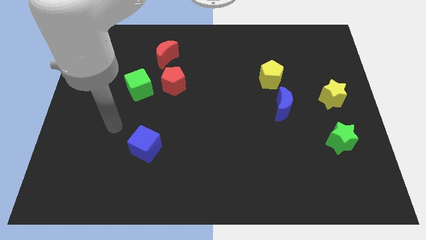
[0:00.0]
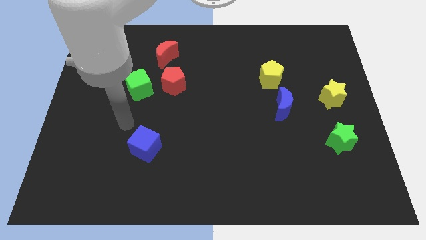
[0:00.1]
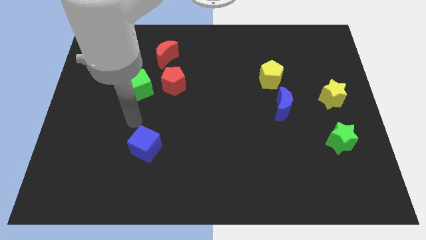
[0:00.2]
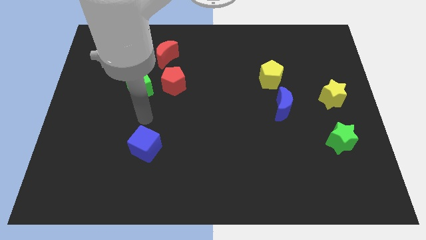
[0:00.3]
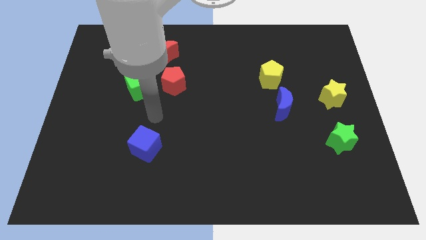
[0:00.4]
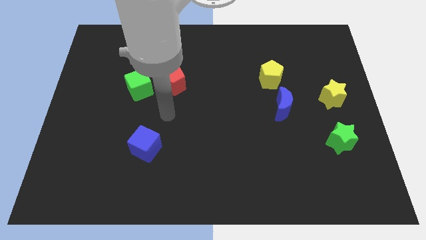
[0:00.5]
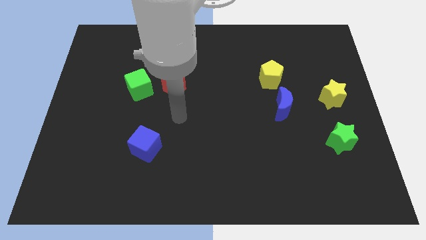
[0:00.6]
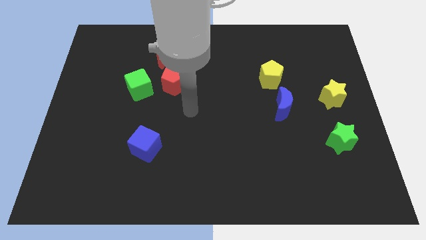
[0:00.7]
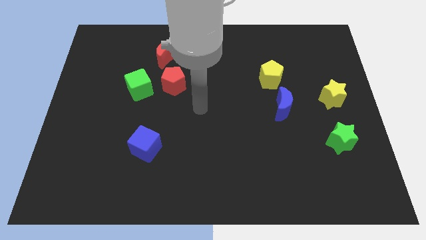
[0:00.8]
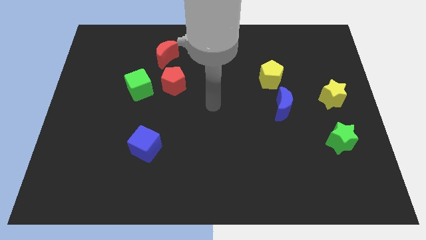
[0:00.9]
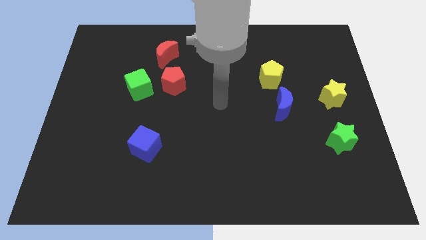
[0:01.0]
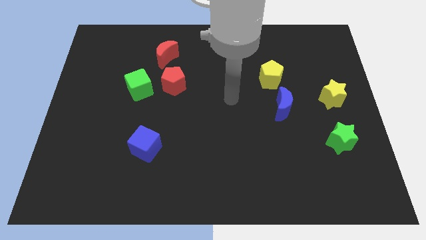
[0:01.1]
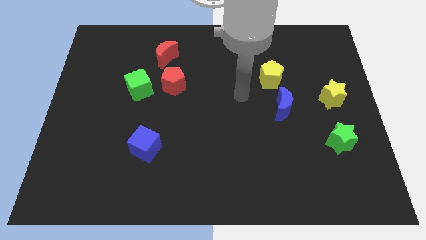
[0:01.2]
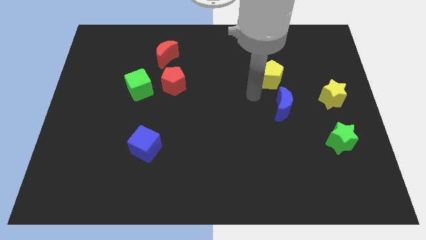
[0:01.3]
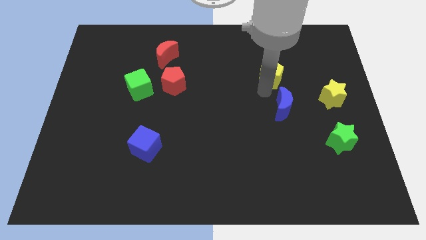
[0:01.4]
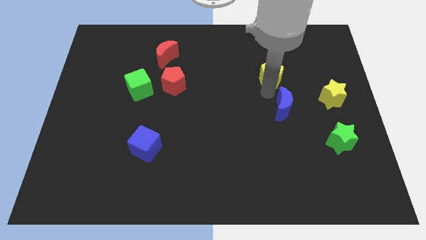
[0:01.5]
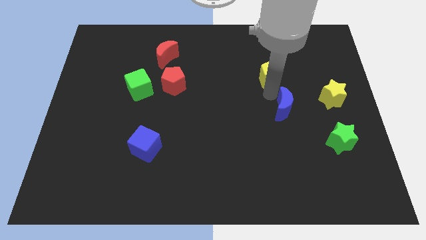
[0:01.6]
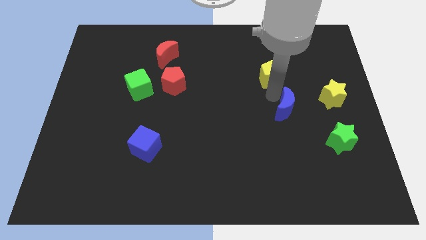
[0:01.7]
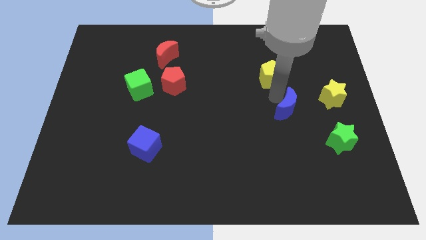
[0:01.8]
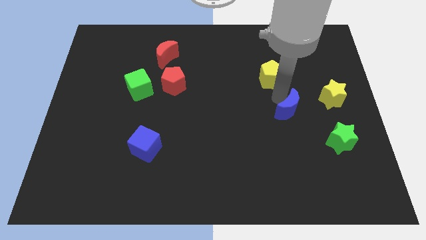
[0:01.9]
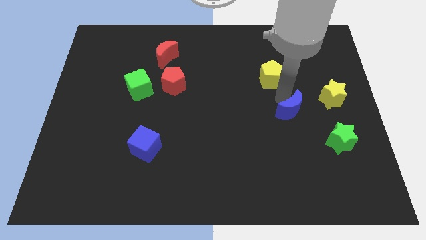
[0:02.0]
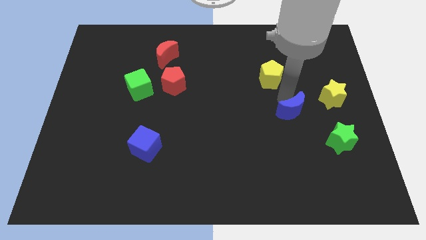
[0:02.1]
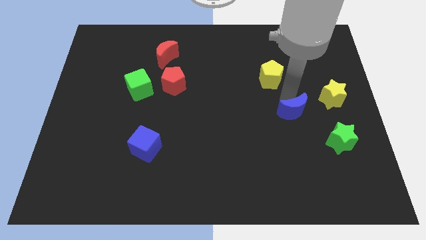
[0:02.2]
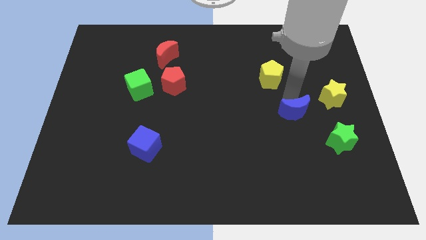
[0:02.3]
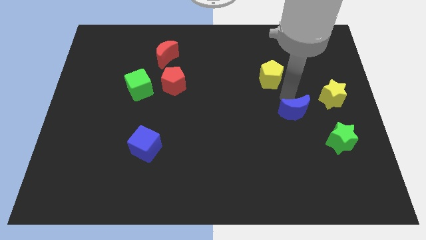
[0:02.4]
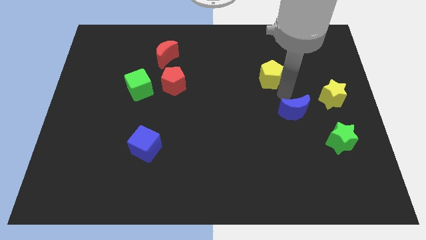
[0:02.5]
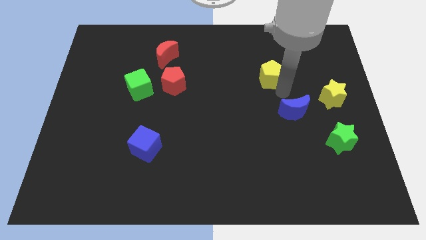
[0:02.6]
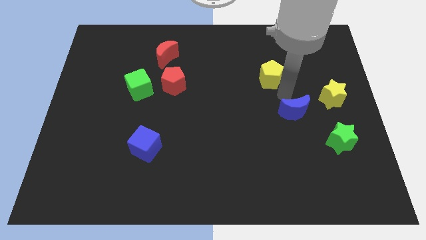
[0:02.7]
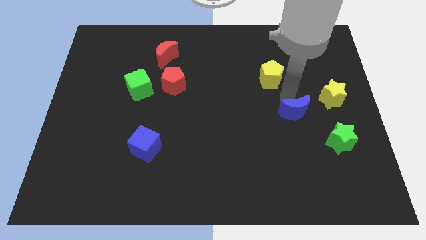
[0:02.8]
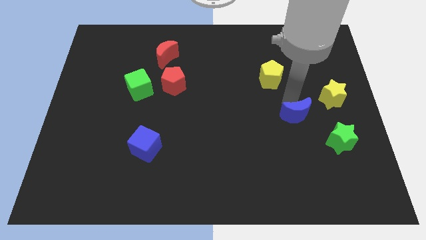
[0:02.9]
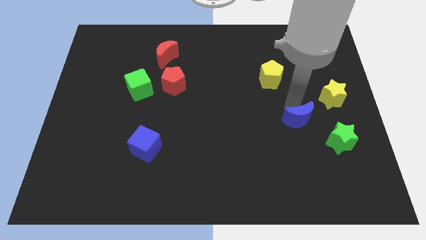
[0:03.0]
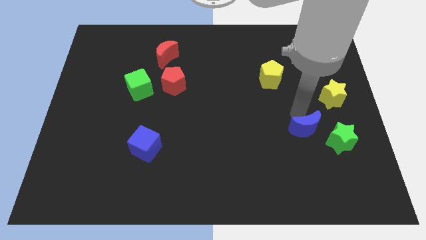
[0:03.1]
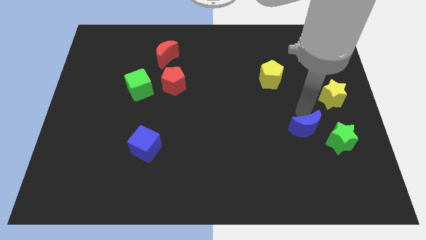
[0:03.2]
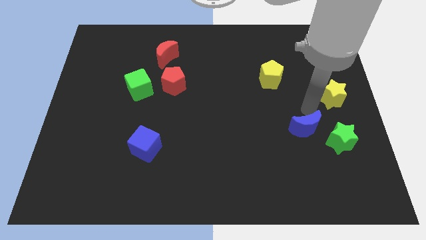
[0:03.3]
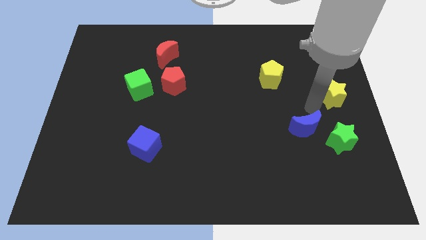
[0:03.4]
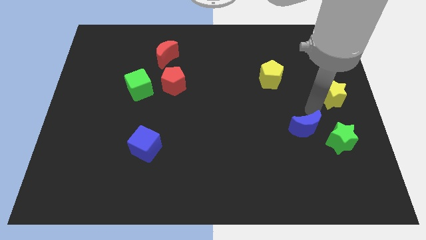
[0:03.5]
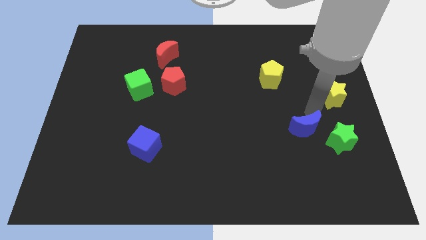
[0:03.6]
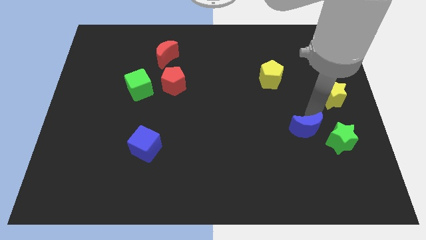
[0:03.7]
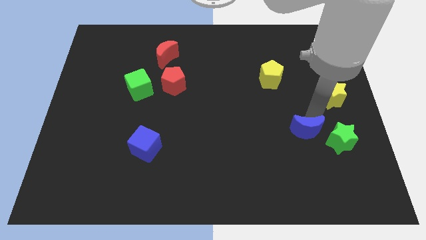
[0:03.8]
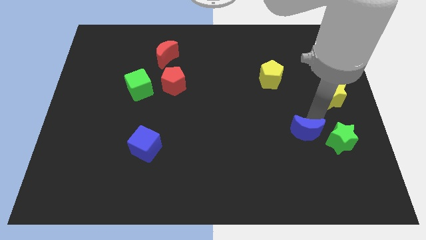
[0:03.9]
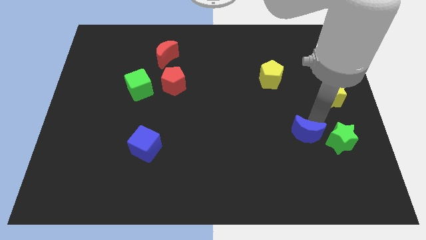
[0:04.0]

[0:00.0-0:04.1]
slightly move the blue moon downwards

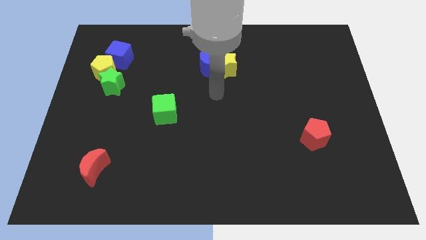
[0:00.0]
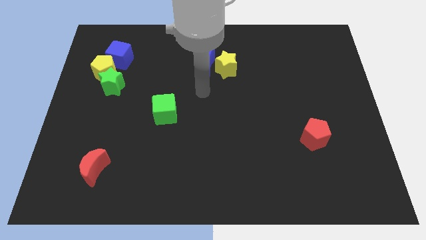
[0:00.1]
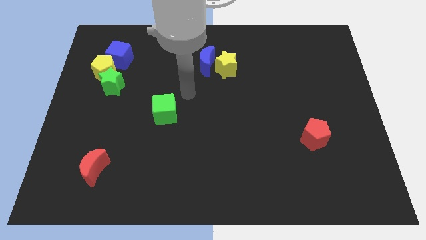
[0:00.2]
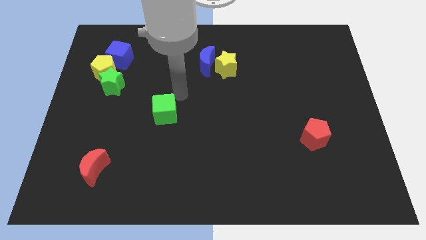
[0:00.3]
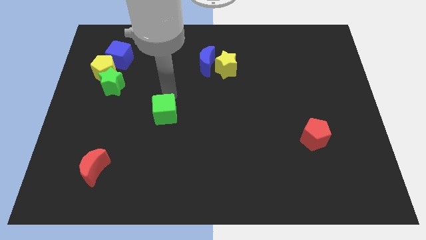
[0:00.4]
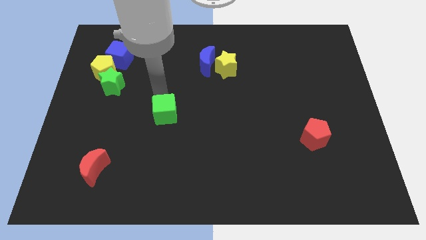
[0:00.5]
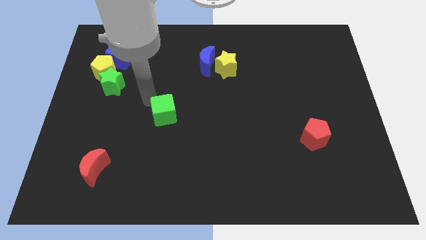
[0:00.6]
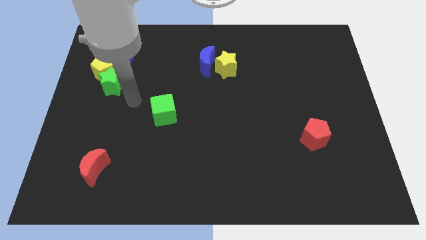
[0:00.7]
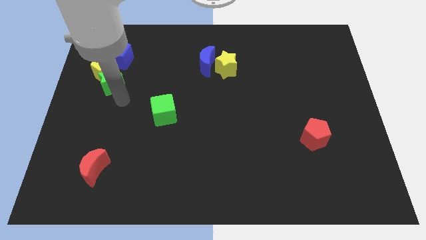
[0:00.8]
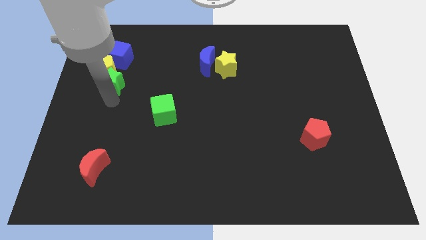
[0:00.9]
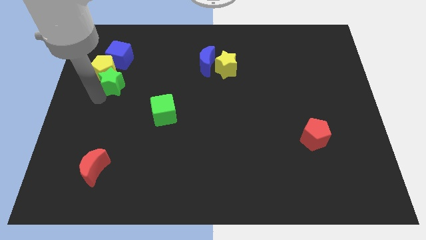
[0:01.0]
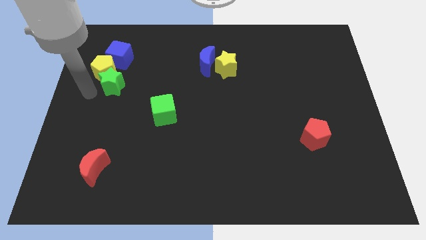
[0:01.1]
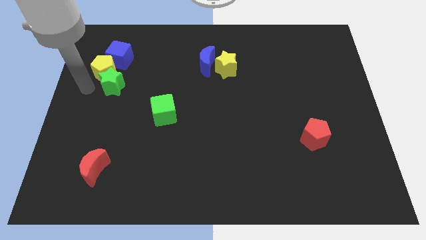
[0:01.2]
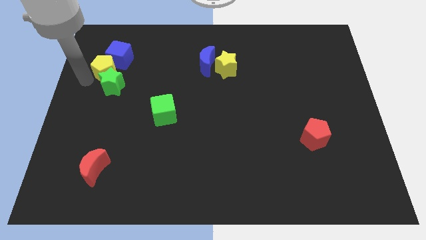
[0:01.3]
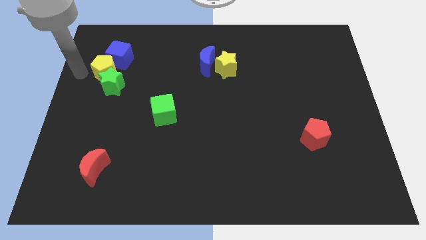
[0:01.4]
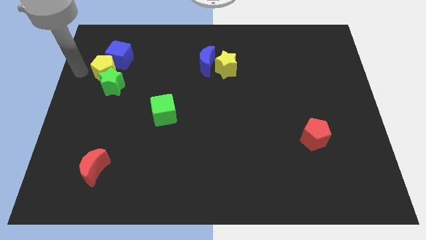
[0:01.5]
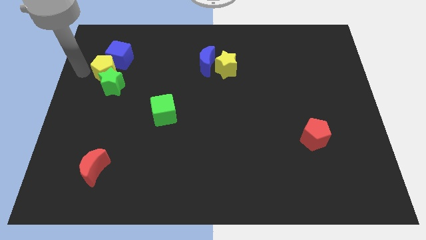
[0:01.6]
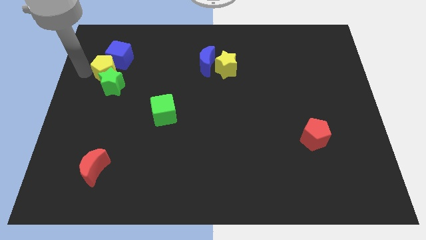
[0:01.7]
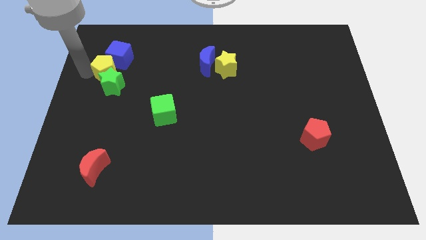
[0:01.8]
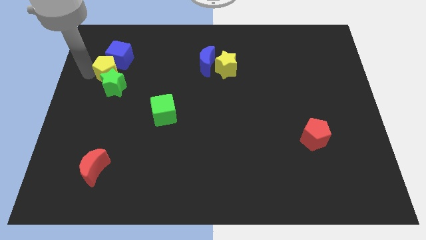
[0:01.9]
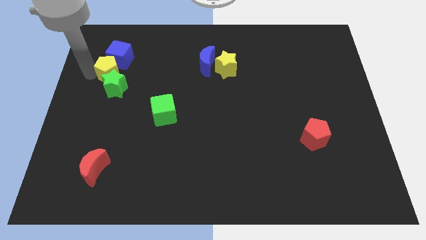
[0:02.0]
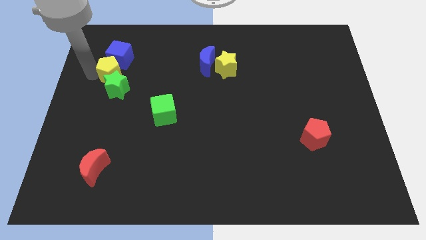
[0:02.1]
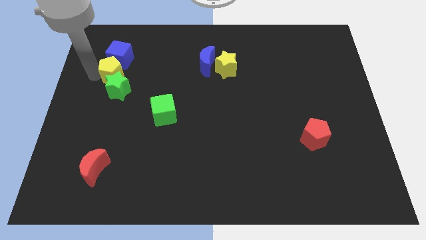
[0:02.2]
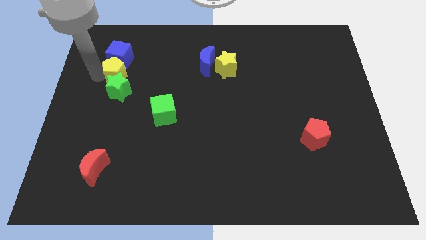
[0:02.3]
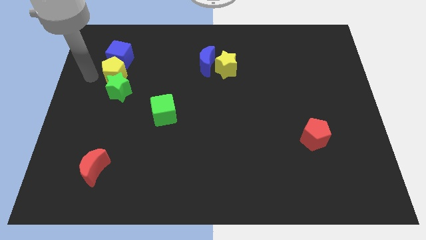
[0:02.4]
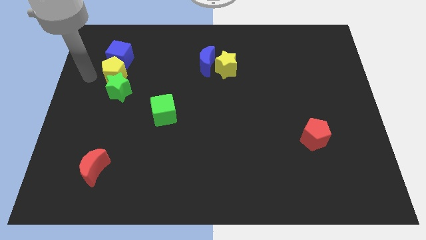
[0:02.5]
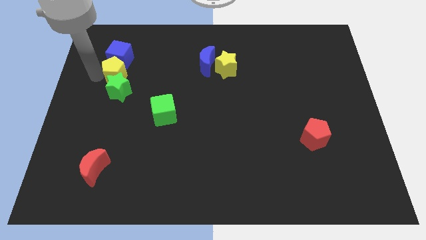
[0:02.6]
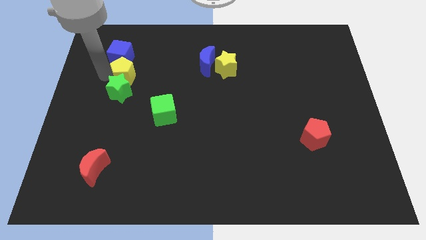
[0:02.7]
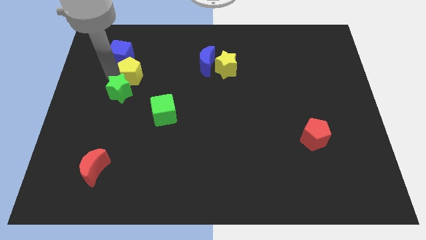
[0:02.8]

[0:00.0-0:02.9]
move the yellow pentagon a bit right

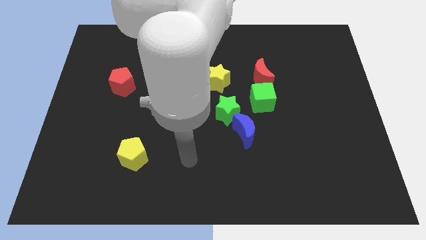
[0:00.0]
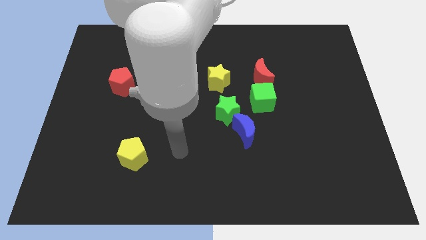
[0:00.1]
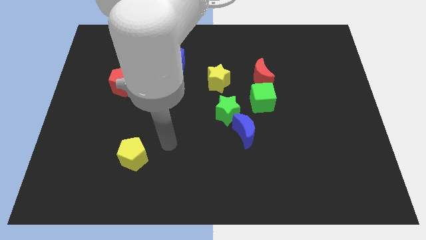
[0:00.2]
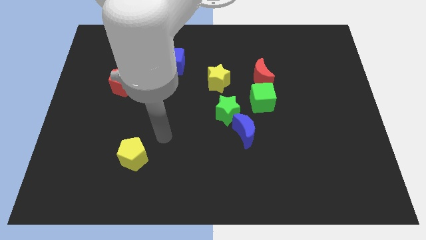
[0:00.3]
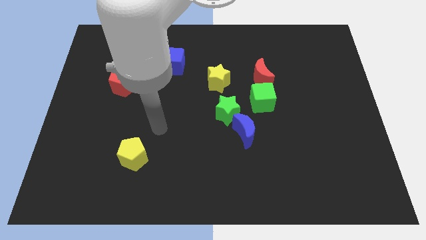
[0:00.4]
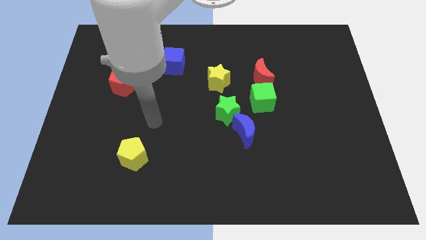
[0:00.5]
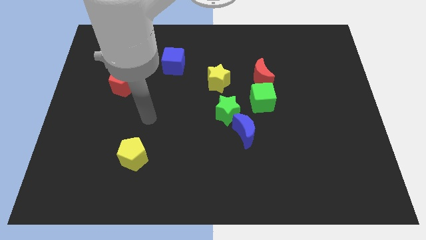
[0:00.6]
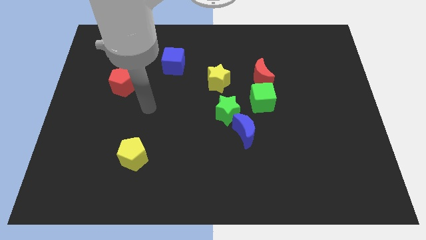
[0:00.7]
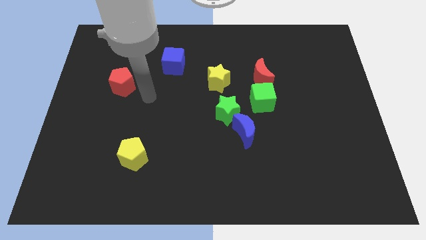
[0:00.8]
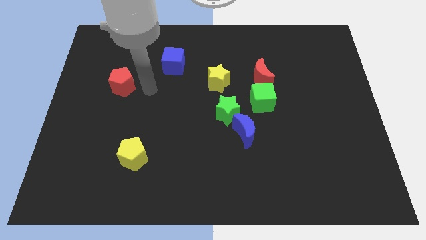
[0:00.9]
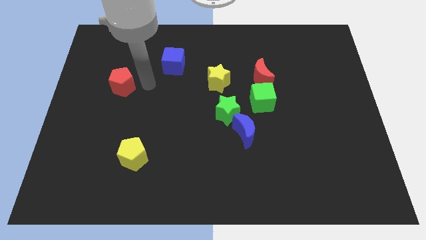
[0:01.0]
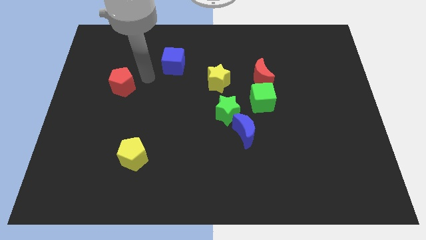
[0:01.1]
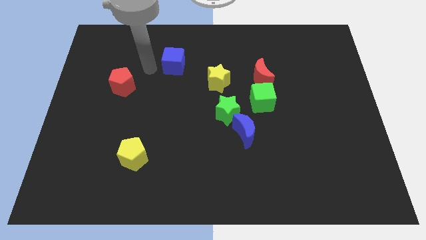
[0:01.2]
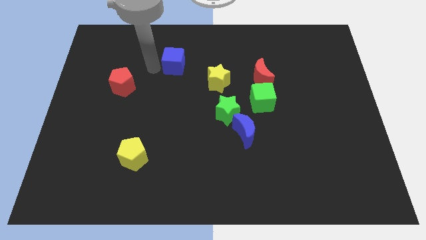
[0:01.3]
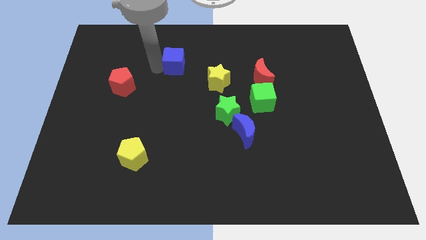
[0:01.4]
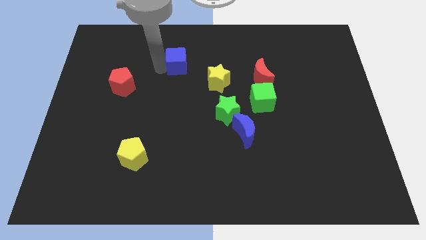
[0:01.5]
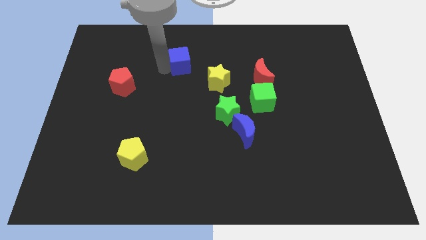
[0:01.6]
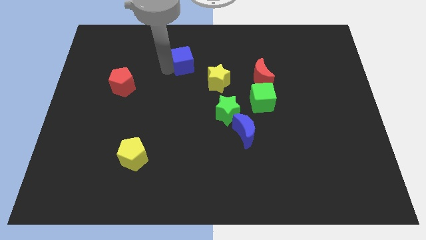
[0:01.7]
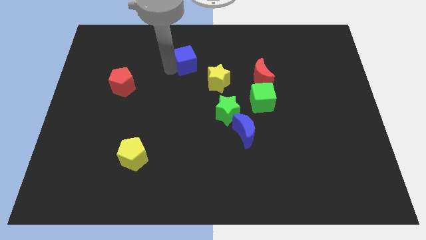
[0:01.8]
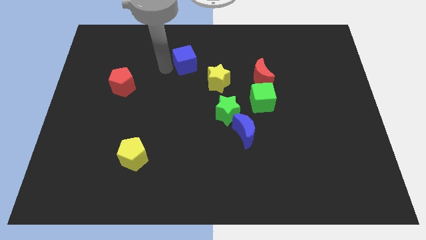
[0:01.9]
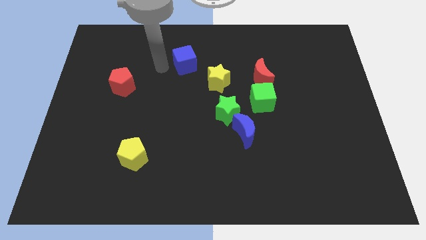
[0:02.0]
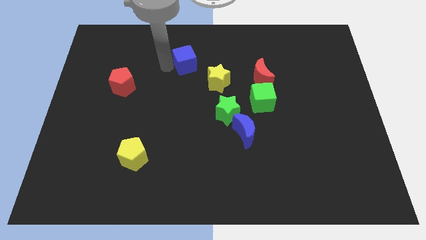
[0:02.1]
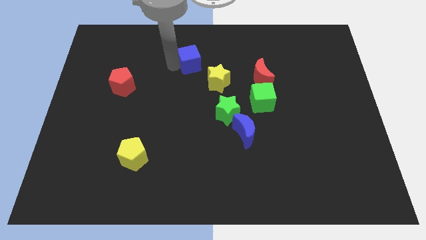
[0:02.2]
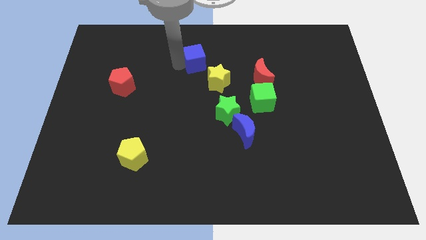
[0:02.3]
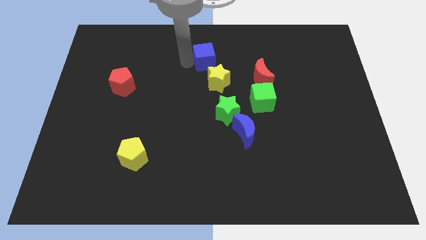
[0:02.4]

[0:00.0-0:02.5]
push the blue cube to the right slightly
